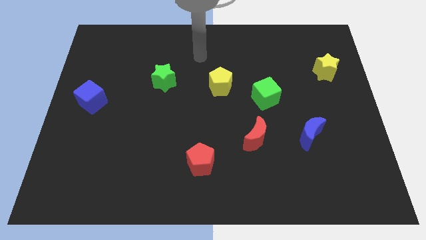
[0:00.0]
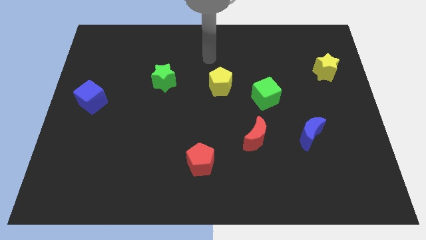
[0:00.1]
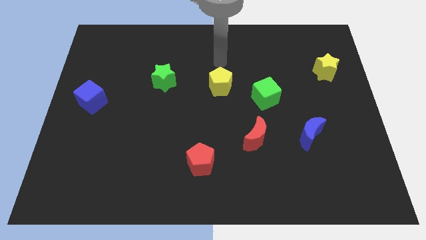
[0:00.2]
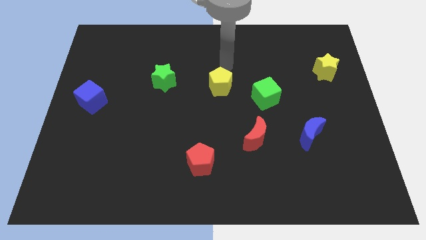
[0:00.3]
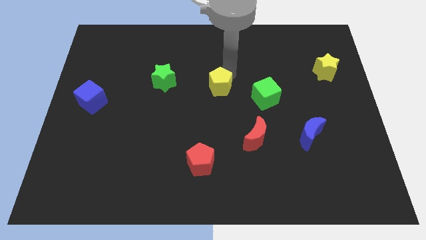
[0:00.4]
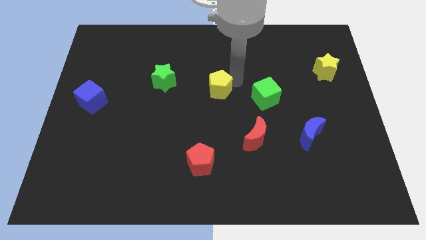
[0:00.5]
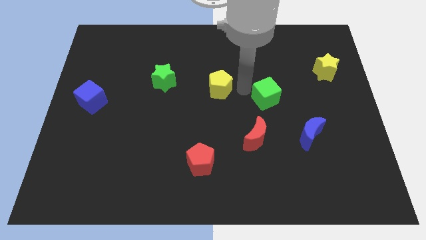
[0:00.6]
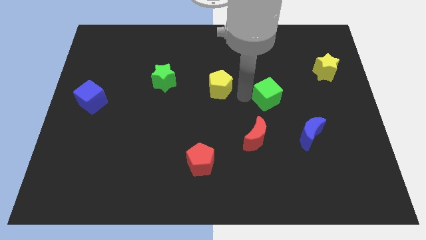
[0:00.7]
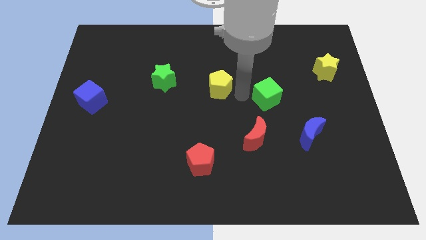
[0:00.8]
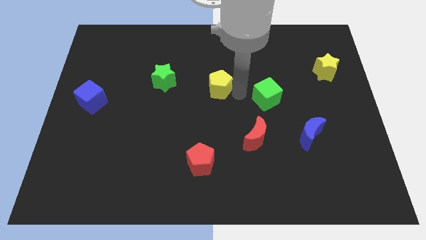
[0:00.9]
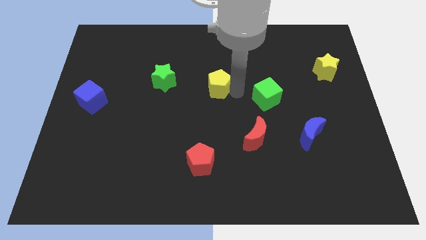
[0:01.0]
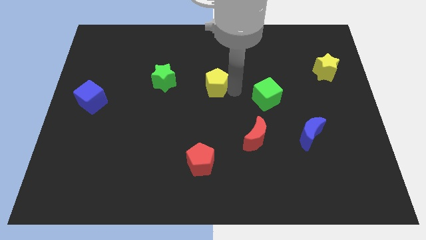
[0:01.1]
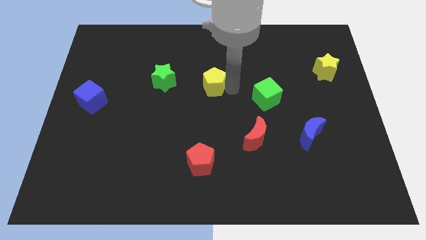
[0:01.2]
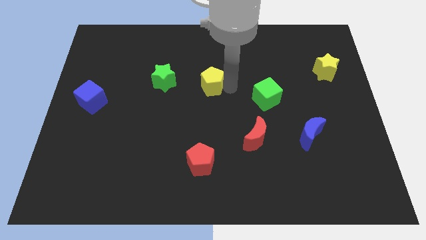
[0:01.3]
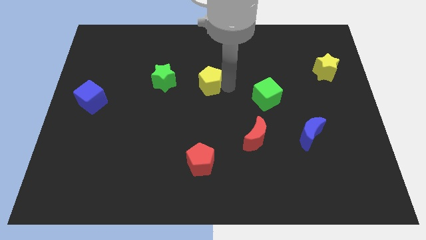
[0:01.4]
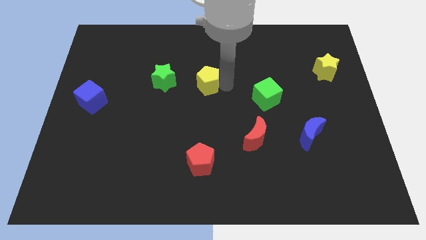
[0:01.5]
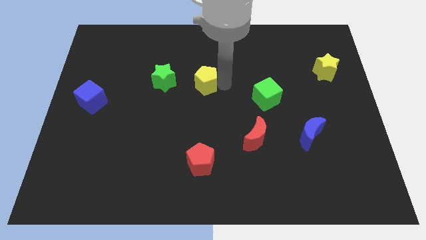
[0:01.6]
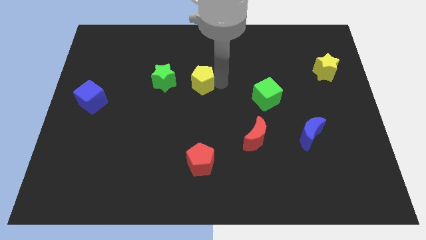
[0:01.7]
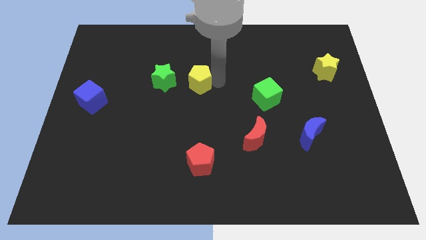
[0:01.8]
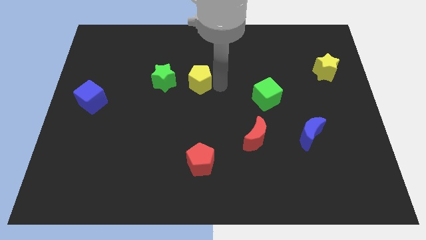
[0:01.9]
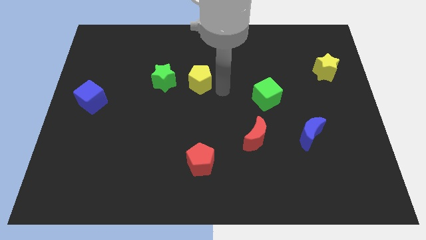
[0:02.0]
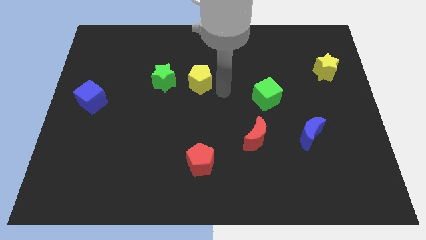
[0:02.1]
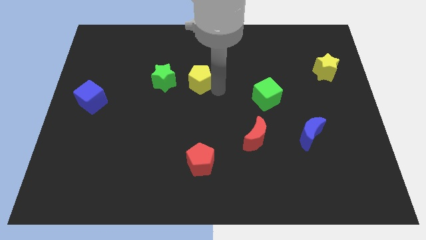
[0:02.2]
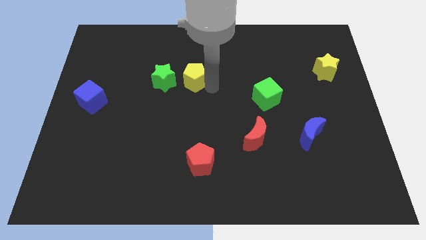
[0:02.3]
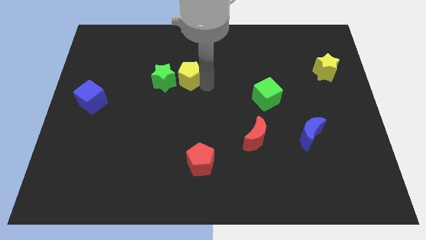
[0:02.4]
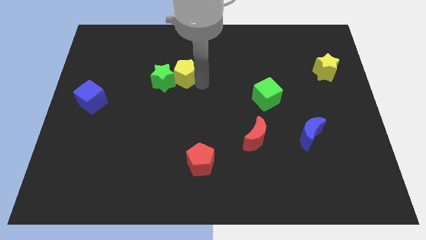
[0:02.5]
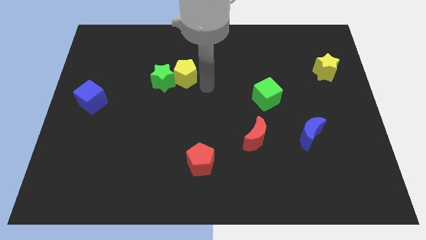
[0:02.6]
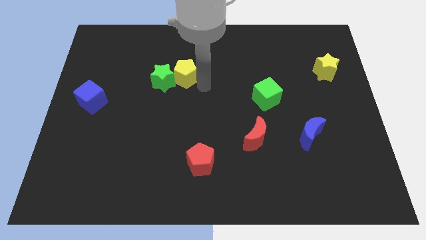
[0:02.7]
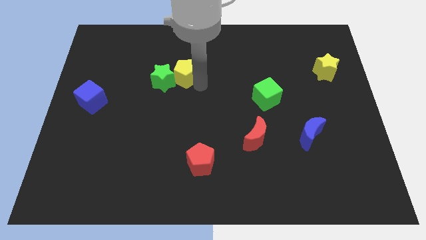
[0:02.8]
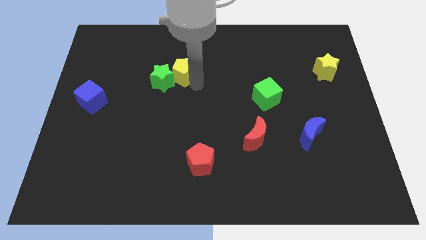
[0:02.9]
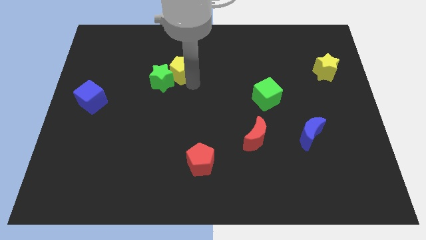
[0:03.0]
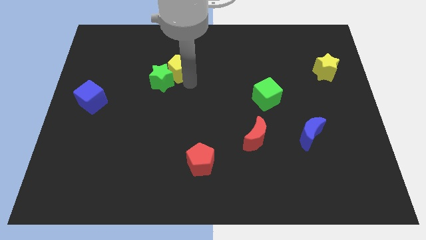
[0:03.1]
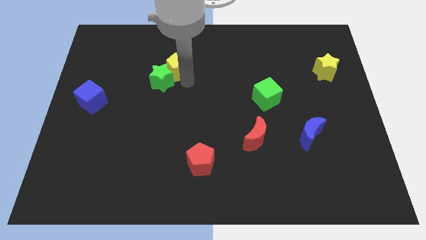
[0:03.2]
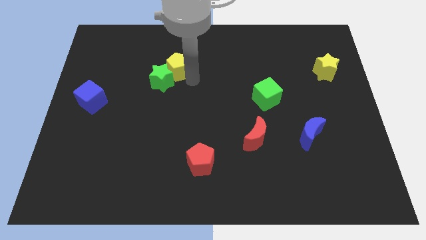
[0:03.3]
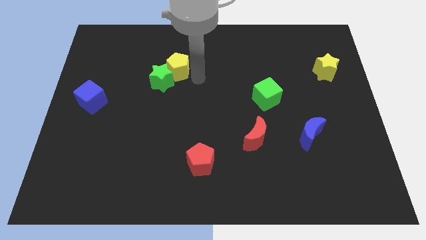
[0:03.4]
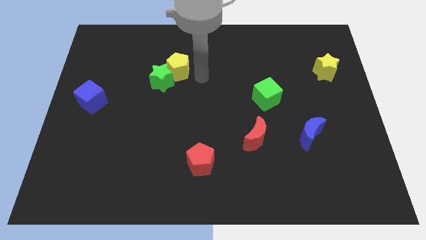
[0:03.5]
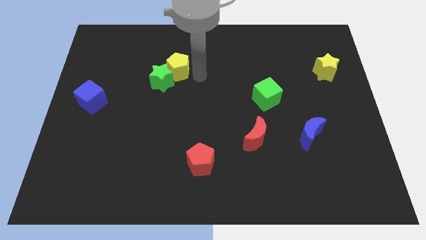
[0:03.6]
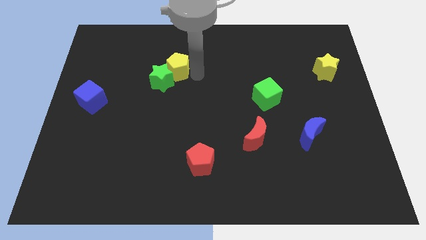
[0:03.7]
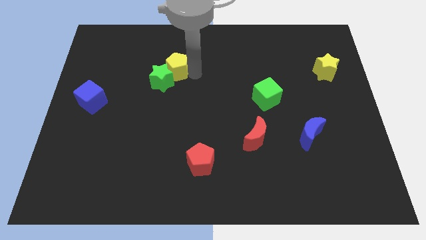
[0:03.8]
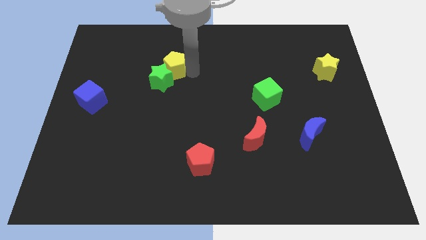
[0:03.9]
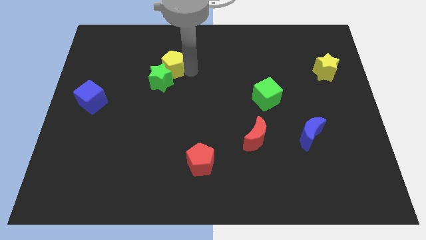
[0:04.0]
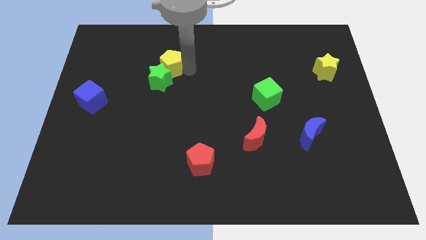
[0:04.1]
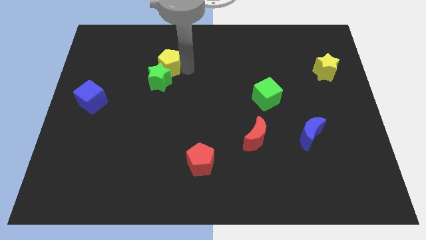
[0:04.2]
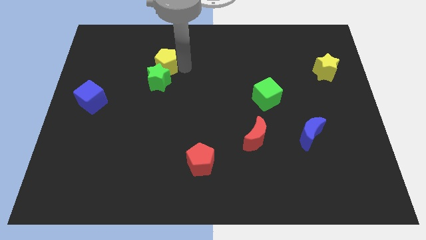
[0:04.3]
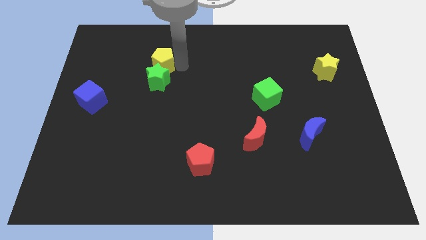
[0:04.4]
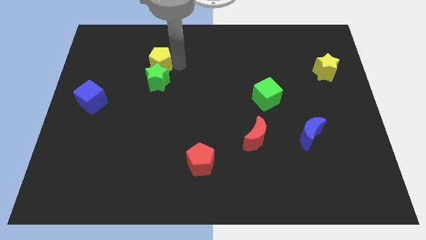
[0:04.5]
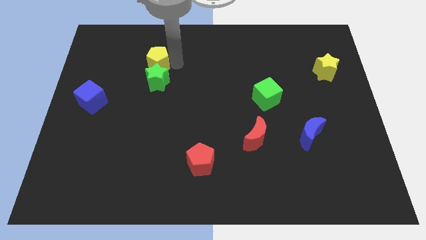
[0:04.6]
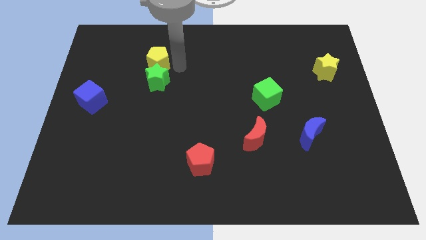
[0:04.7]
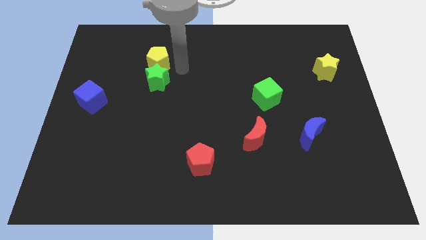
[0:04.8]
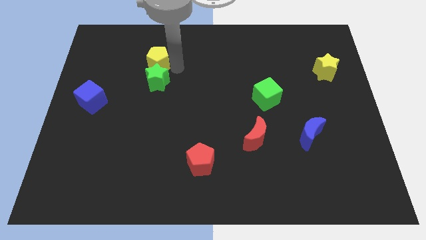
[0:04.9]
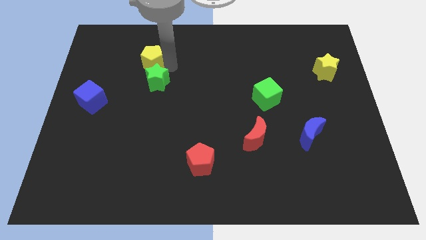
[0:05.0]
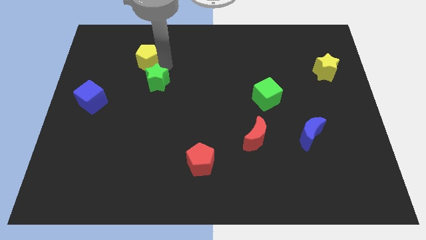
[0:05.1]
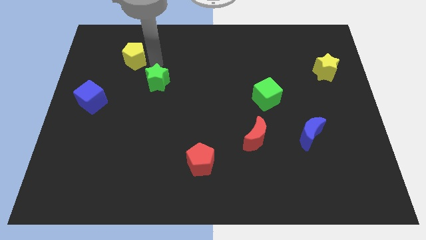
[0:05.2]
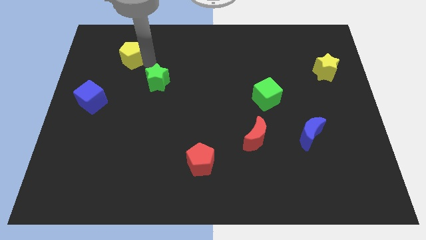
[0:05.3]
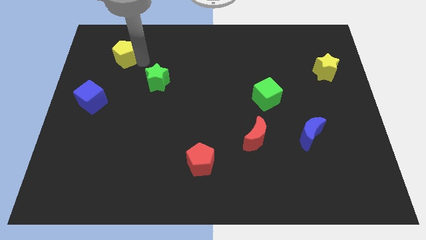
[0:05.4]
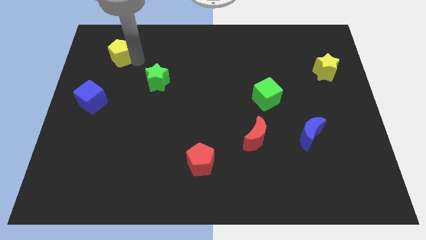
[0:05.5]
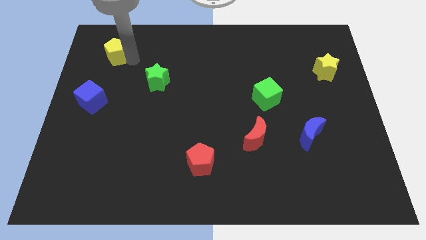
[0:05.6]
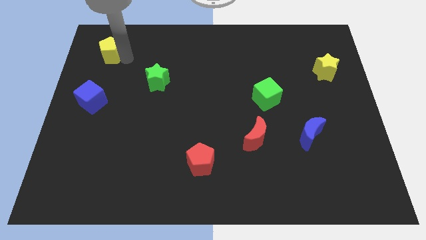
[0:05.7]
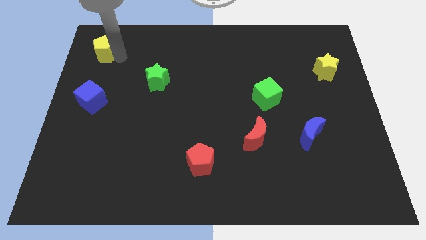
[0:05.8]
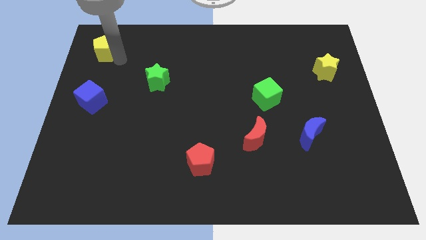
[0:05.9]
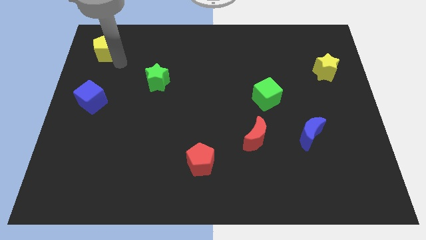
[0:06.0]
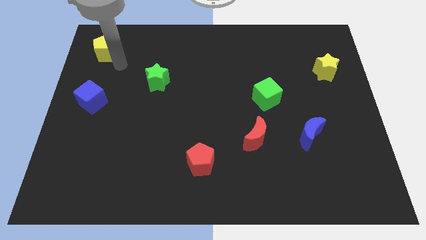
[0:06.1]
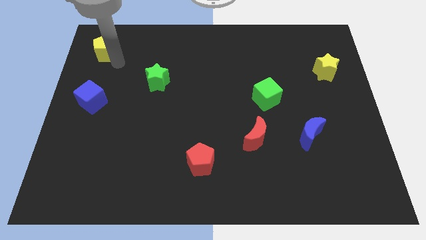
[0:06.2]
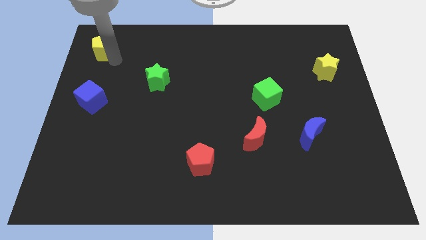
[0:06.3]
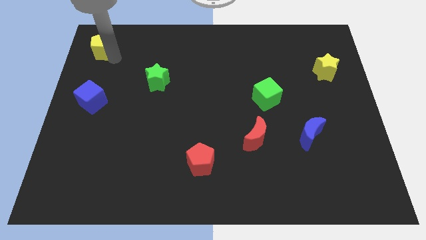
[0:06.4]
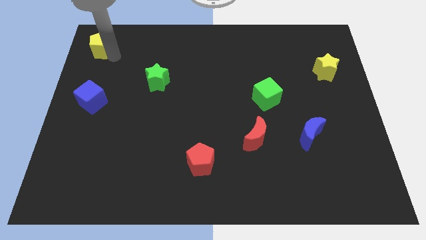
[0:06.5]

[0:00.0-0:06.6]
put the yellow pentagon to the top left
